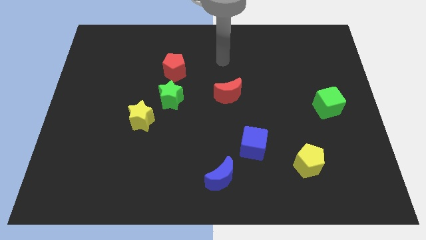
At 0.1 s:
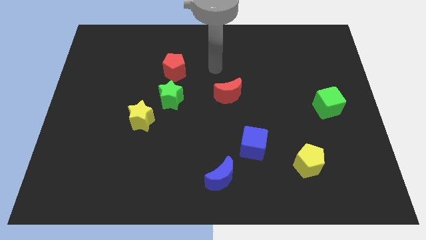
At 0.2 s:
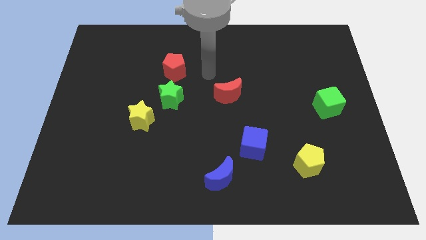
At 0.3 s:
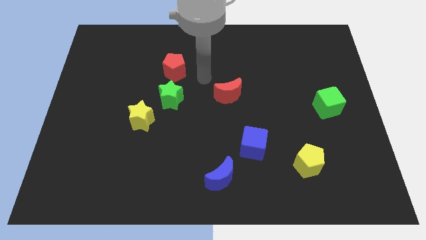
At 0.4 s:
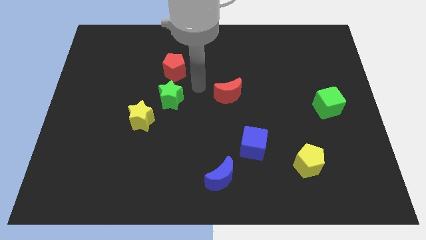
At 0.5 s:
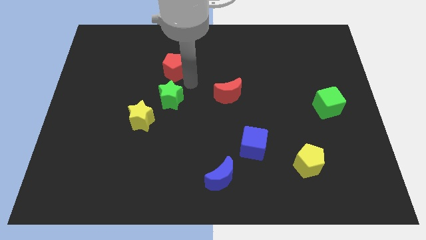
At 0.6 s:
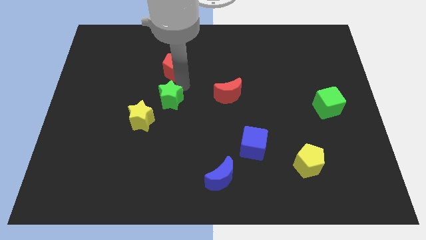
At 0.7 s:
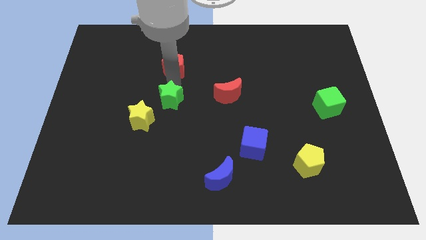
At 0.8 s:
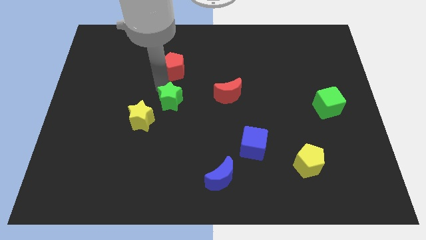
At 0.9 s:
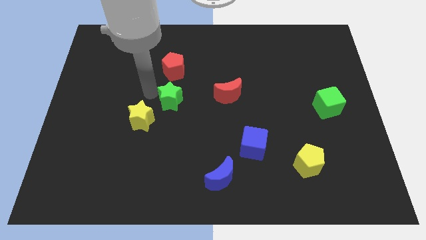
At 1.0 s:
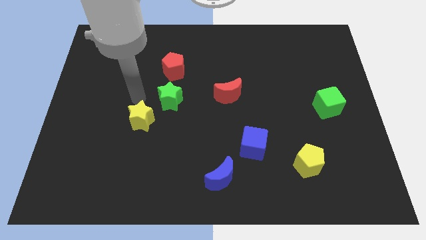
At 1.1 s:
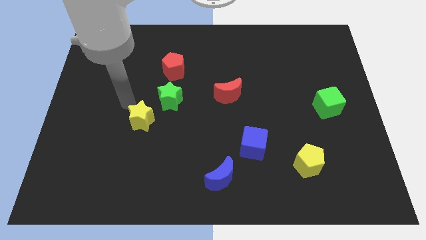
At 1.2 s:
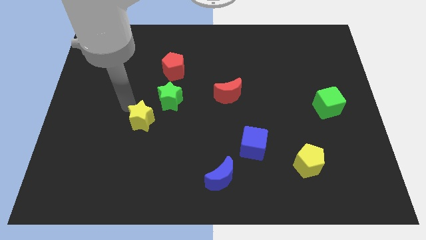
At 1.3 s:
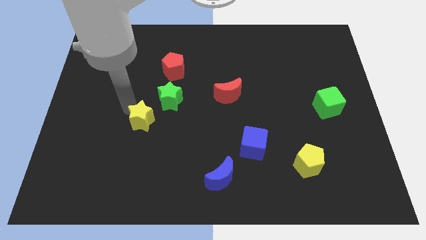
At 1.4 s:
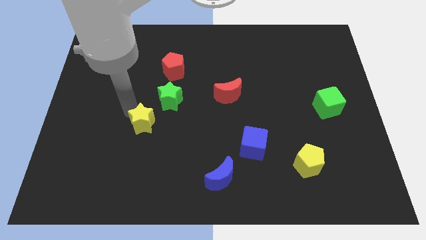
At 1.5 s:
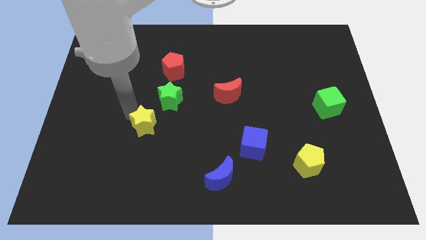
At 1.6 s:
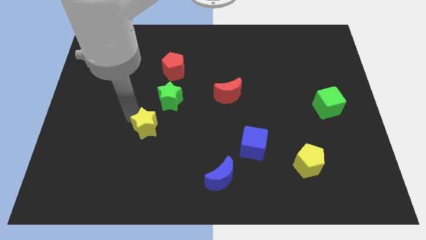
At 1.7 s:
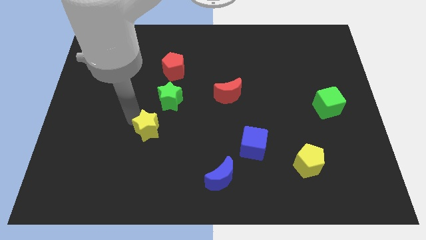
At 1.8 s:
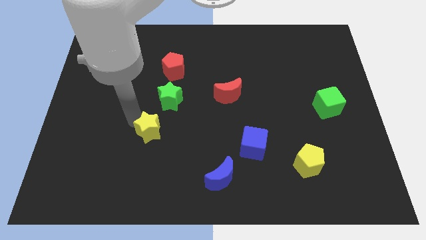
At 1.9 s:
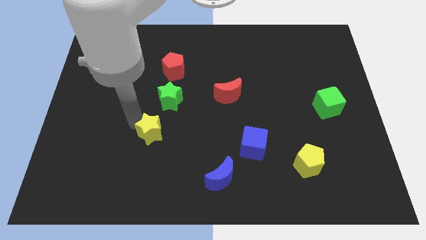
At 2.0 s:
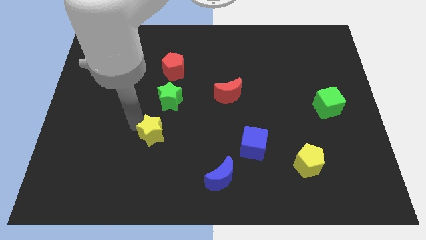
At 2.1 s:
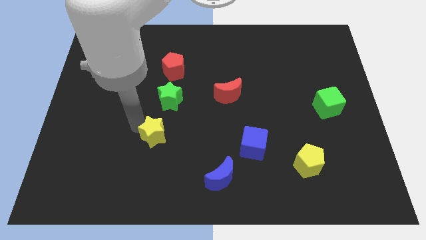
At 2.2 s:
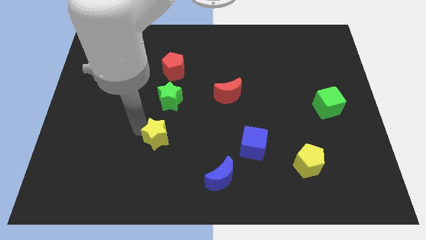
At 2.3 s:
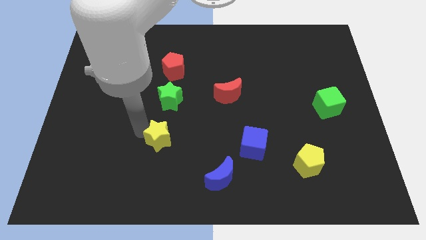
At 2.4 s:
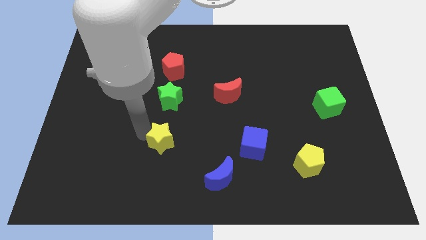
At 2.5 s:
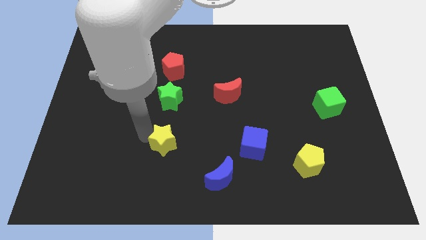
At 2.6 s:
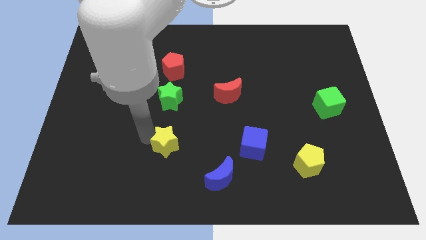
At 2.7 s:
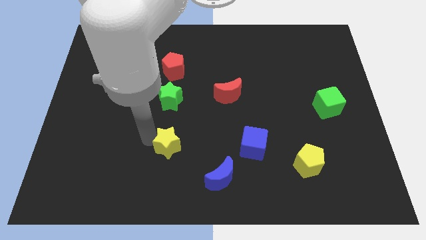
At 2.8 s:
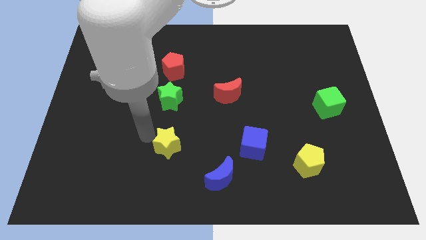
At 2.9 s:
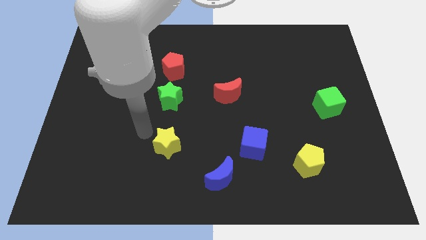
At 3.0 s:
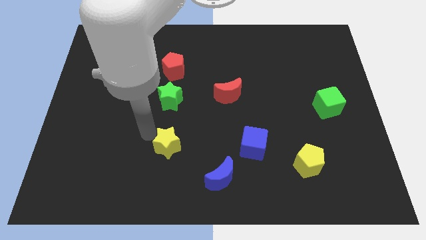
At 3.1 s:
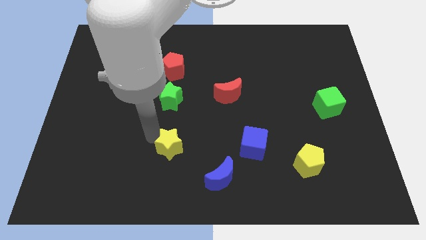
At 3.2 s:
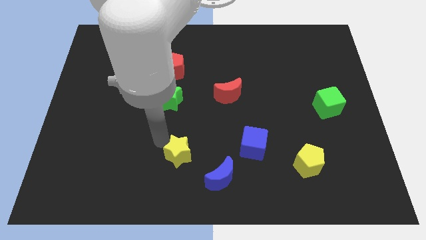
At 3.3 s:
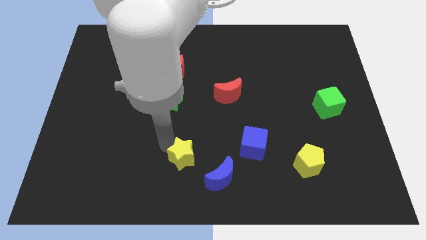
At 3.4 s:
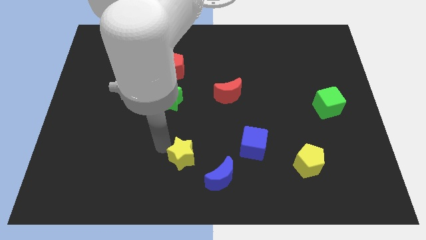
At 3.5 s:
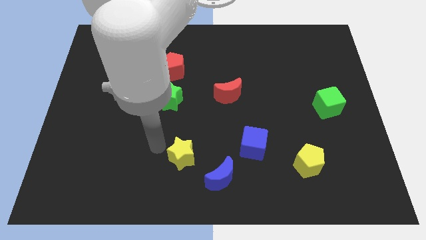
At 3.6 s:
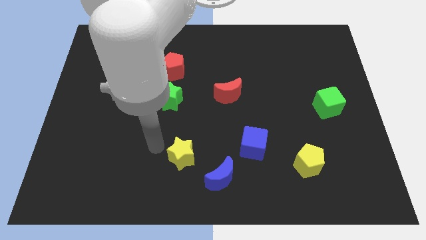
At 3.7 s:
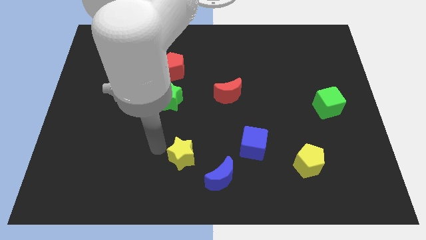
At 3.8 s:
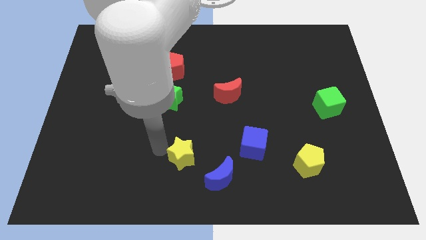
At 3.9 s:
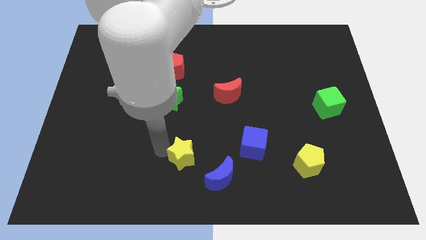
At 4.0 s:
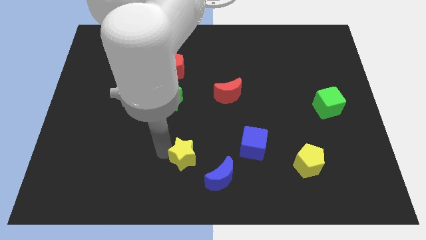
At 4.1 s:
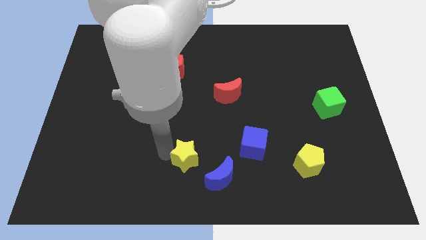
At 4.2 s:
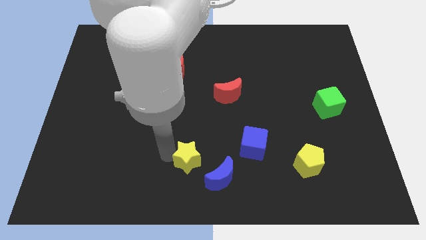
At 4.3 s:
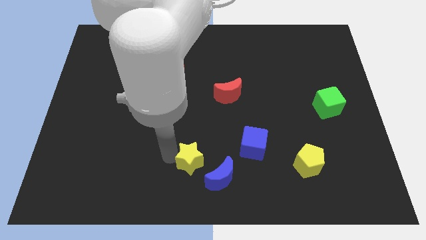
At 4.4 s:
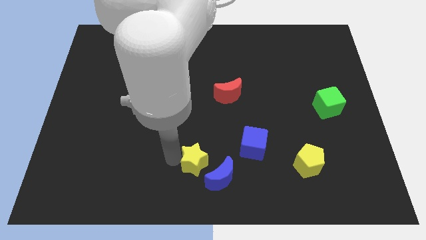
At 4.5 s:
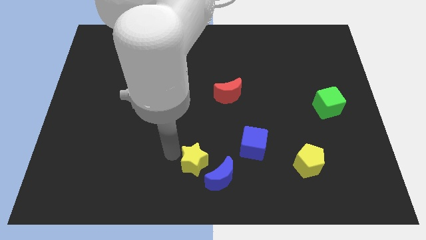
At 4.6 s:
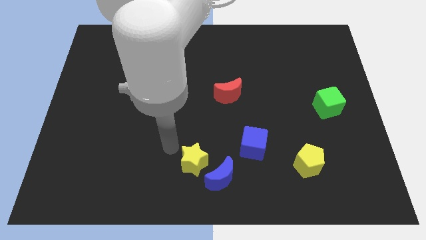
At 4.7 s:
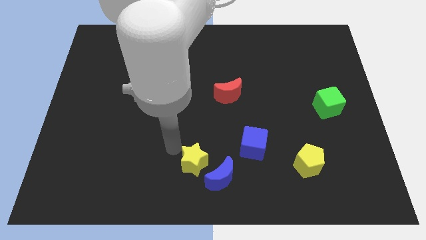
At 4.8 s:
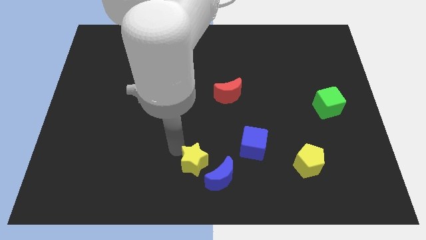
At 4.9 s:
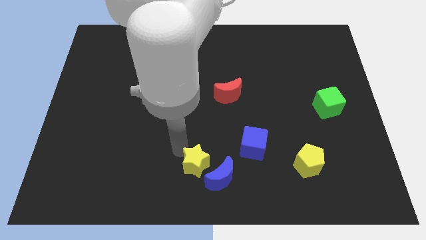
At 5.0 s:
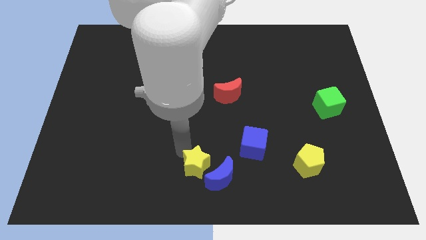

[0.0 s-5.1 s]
move the yellow star close to the blue moon

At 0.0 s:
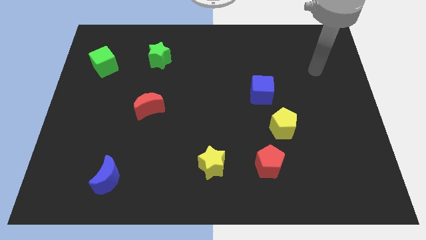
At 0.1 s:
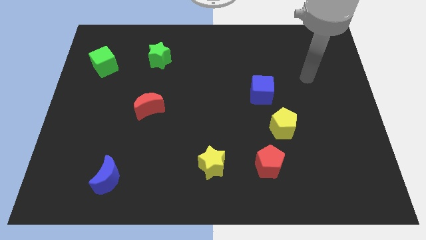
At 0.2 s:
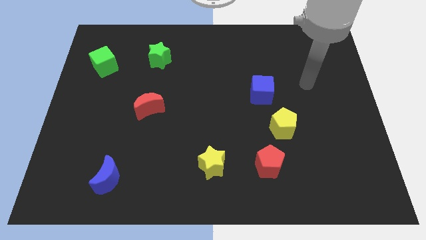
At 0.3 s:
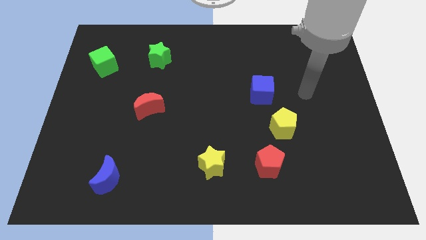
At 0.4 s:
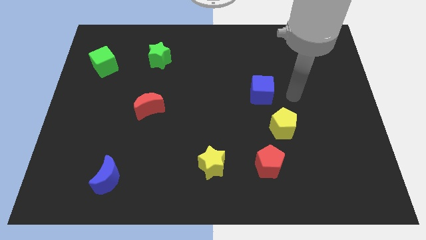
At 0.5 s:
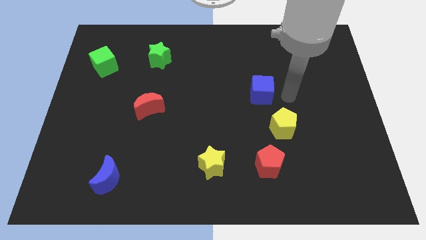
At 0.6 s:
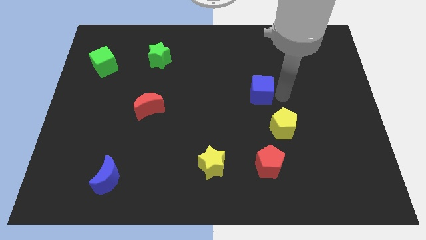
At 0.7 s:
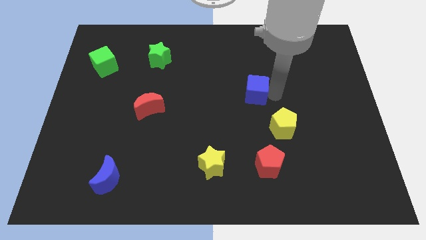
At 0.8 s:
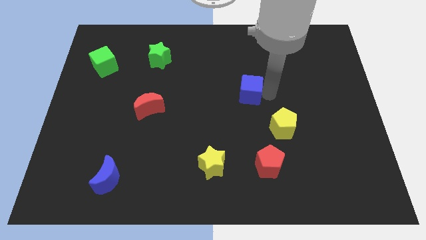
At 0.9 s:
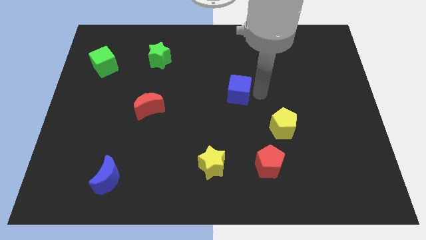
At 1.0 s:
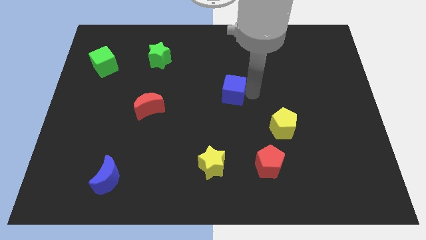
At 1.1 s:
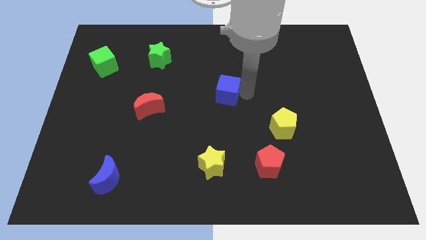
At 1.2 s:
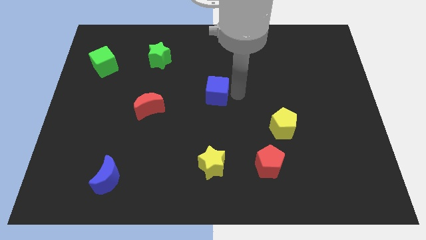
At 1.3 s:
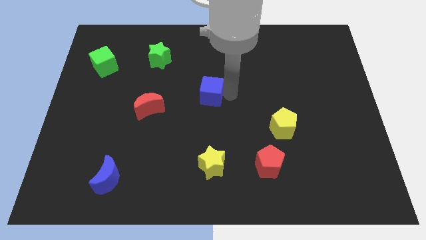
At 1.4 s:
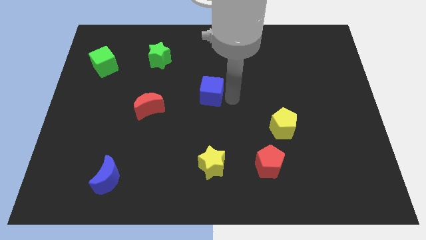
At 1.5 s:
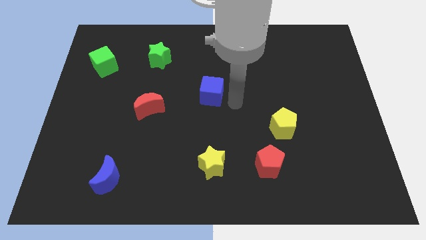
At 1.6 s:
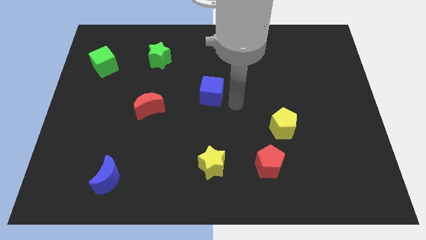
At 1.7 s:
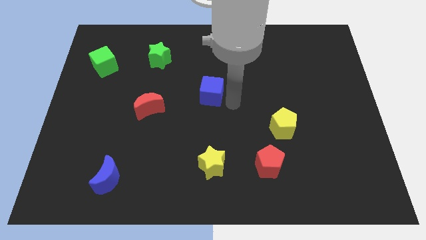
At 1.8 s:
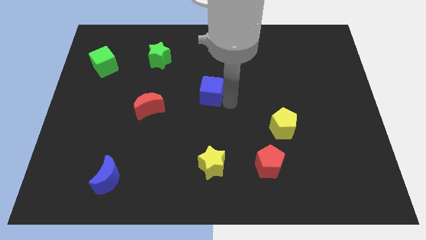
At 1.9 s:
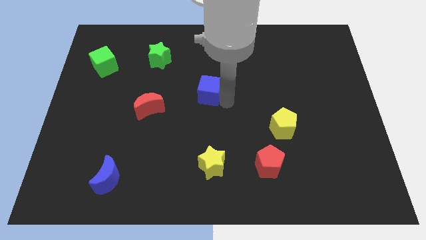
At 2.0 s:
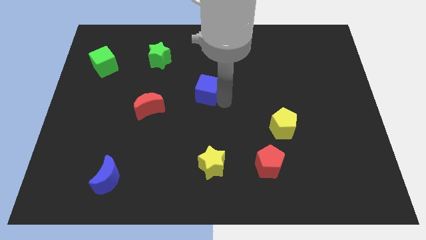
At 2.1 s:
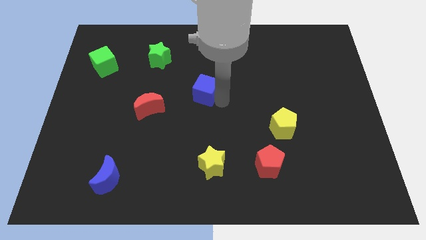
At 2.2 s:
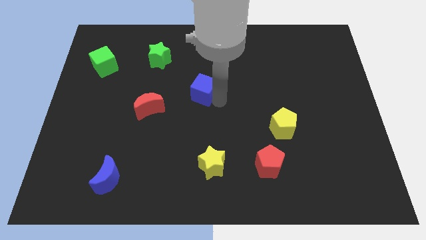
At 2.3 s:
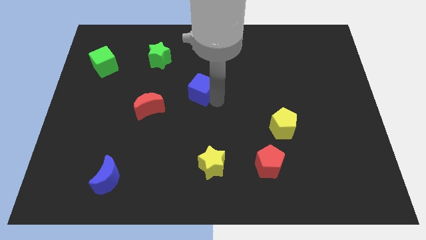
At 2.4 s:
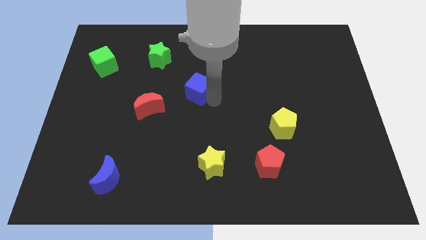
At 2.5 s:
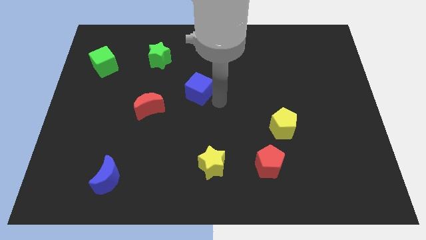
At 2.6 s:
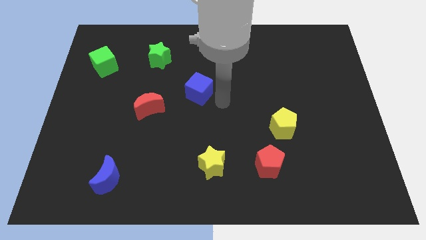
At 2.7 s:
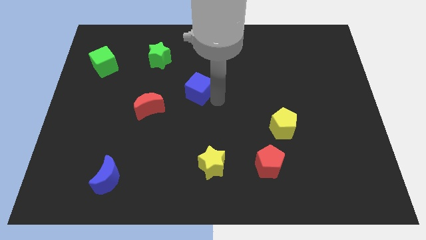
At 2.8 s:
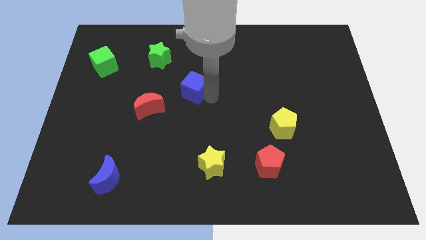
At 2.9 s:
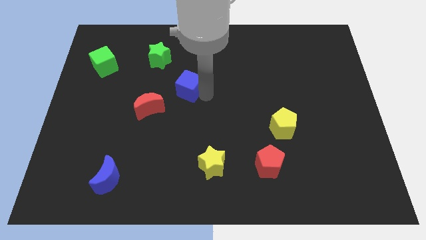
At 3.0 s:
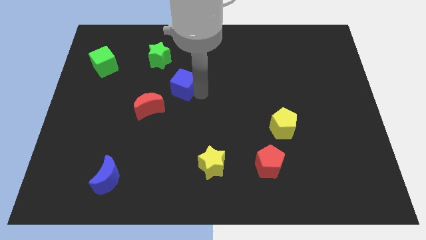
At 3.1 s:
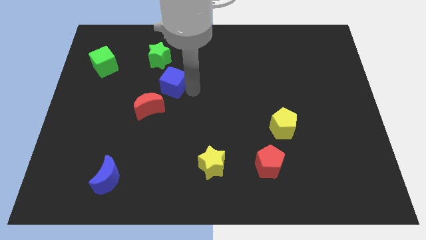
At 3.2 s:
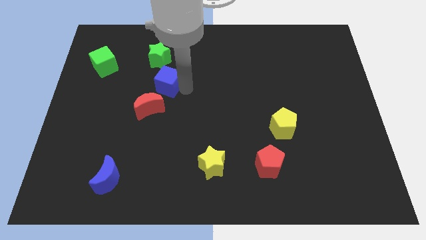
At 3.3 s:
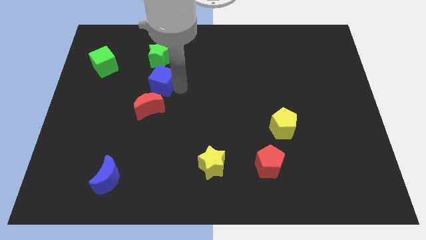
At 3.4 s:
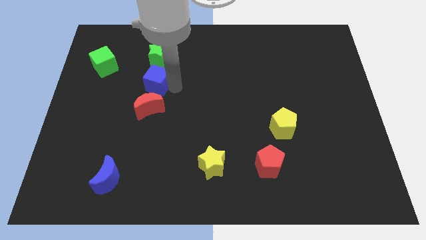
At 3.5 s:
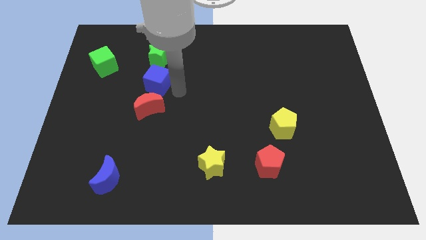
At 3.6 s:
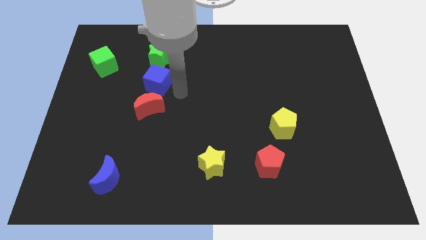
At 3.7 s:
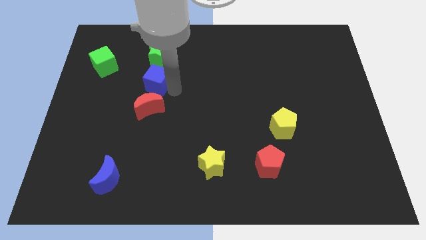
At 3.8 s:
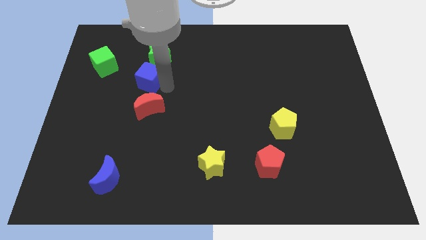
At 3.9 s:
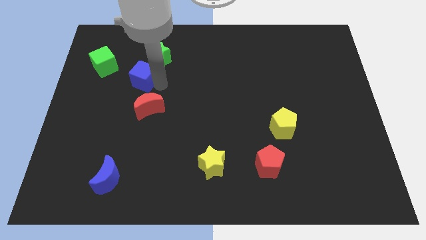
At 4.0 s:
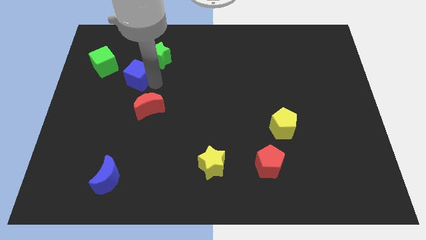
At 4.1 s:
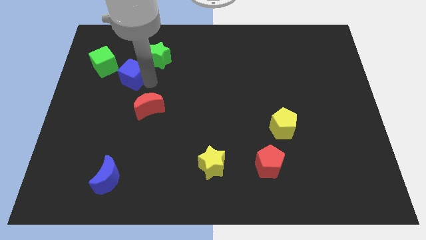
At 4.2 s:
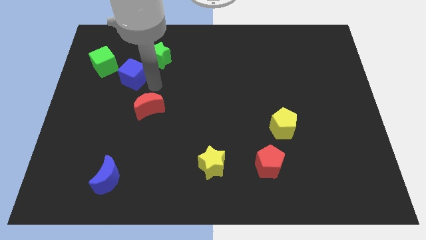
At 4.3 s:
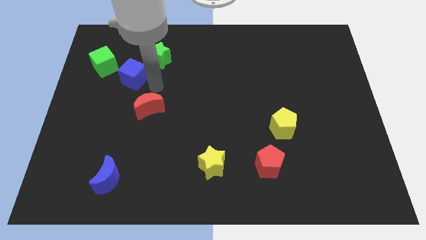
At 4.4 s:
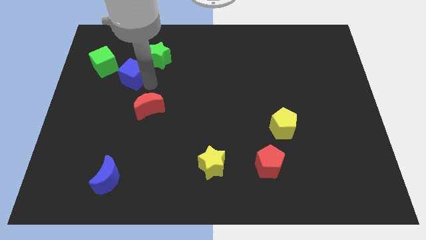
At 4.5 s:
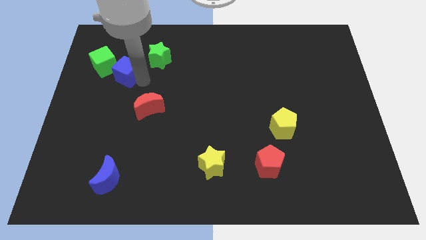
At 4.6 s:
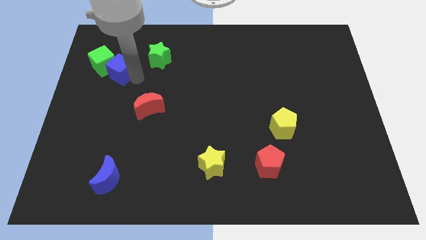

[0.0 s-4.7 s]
slide the blue cube next to the green cube
